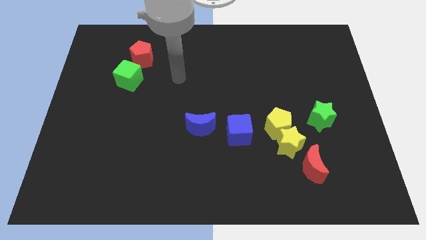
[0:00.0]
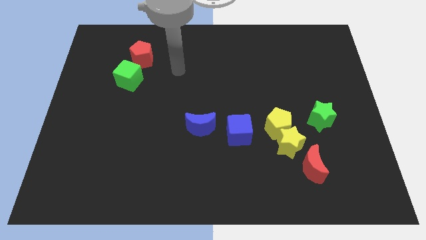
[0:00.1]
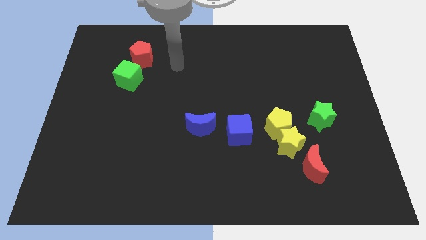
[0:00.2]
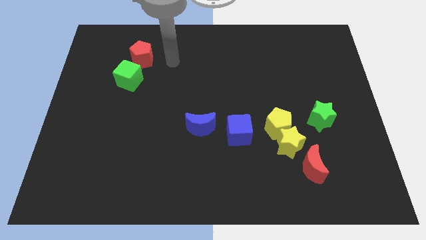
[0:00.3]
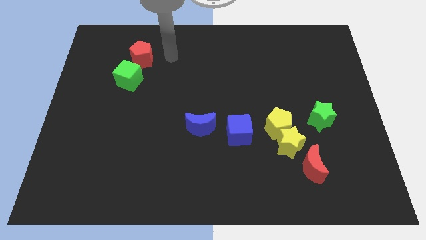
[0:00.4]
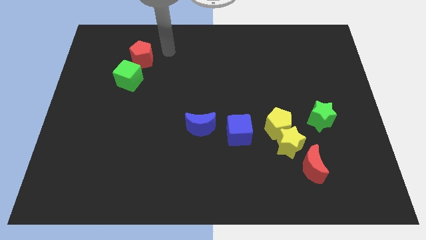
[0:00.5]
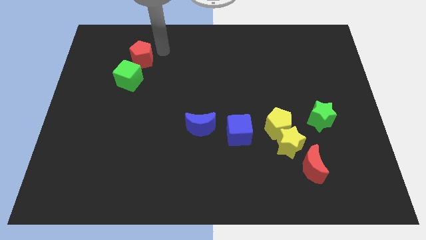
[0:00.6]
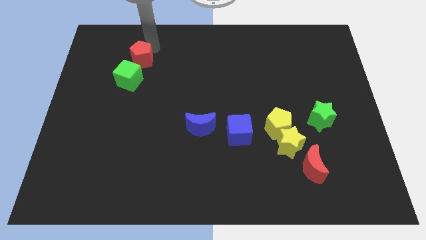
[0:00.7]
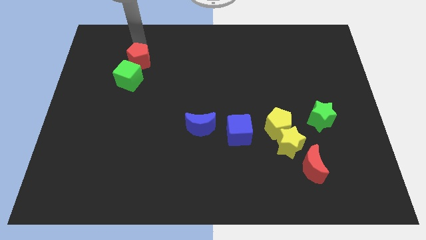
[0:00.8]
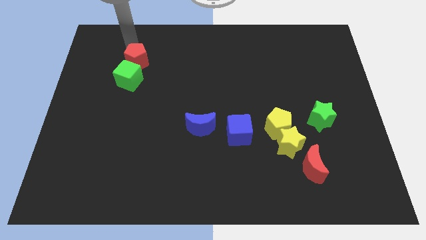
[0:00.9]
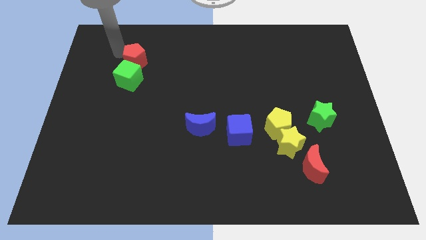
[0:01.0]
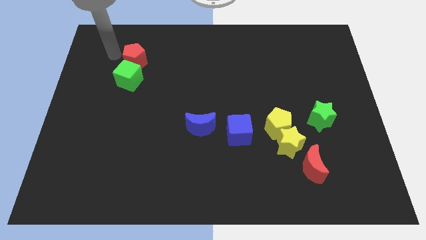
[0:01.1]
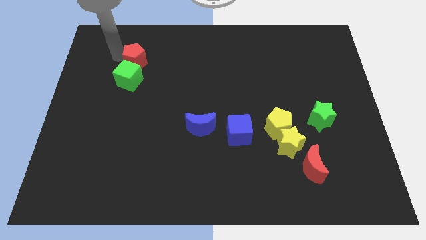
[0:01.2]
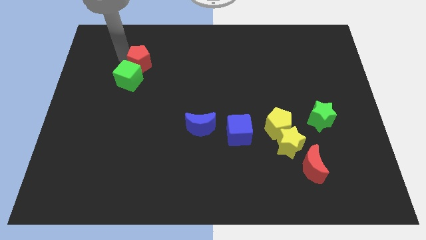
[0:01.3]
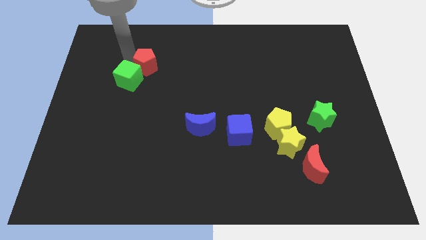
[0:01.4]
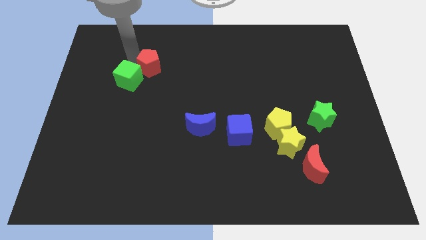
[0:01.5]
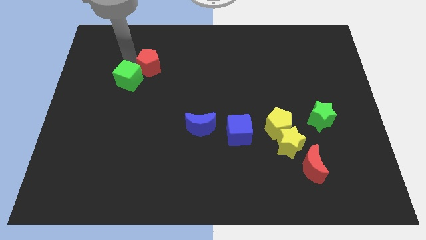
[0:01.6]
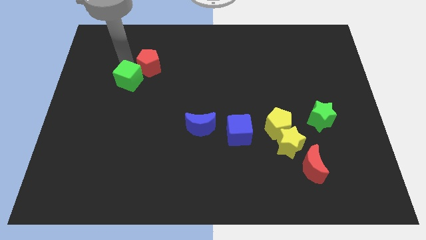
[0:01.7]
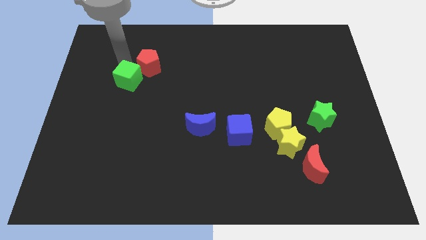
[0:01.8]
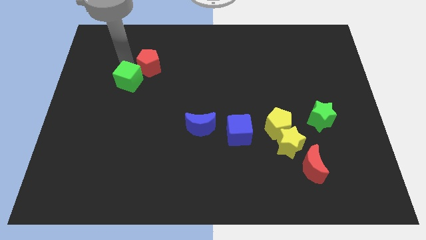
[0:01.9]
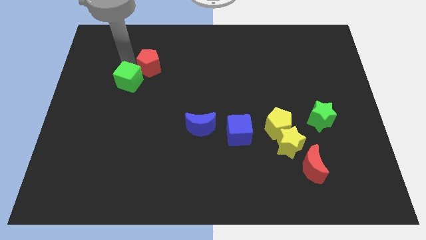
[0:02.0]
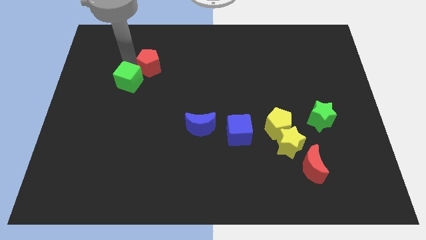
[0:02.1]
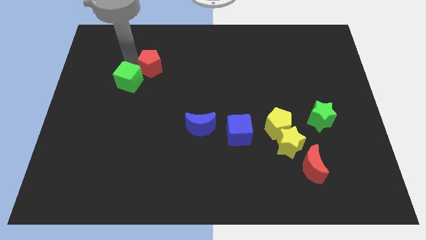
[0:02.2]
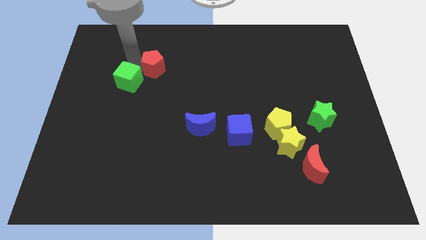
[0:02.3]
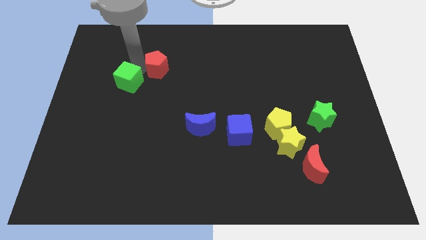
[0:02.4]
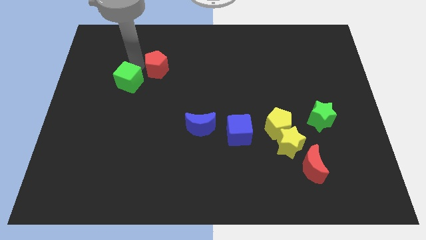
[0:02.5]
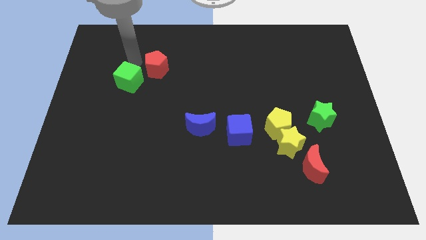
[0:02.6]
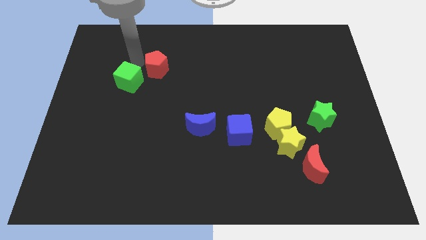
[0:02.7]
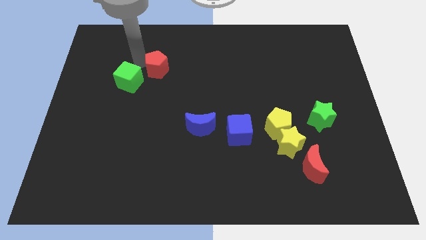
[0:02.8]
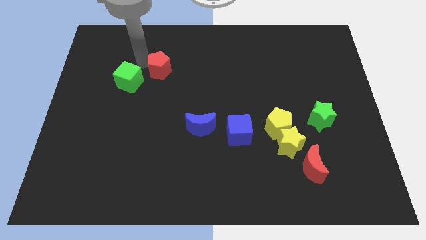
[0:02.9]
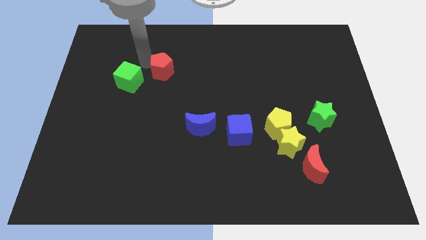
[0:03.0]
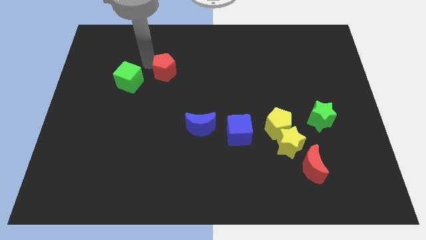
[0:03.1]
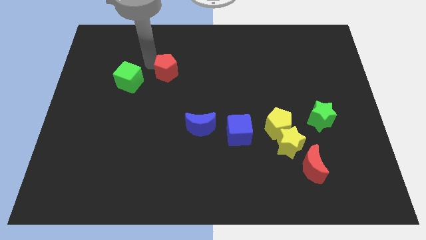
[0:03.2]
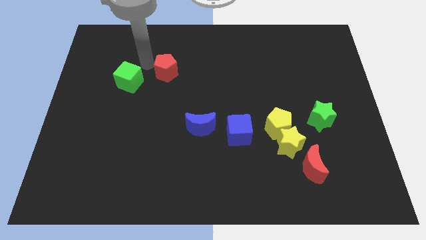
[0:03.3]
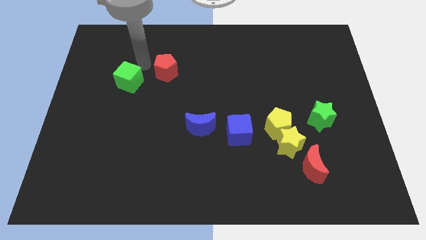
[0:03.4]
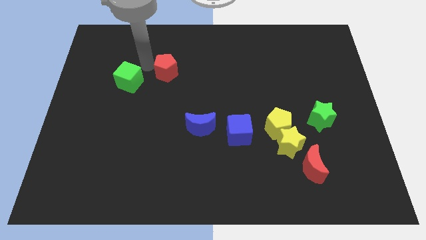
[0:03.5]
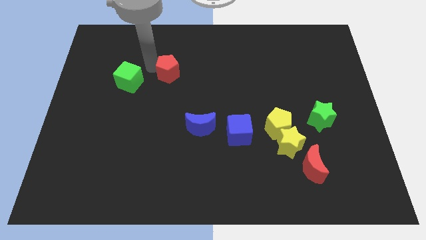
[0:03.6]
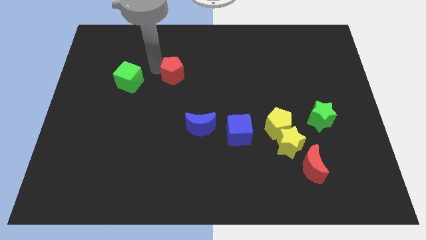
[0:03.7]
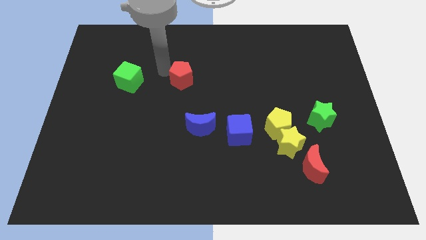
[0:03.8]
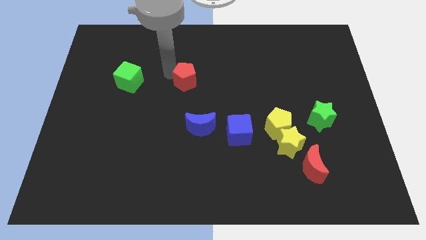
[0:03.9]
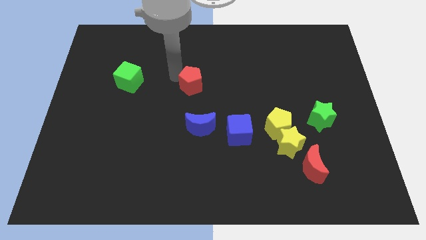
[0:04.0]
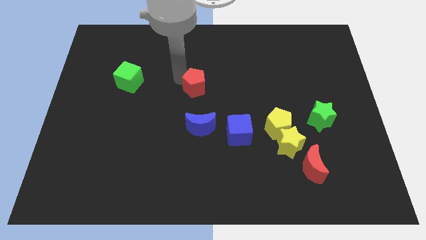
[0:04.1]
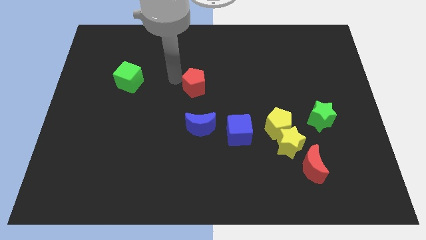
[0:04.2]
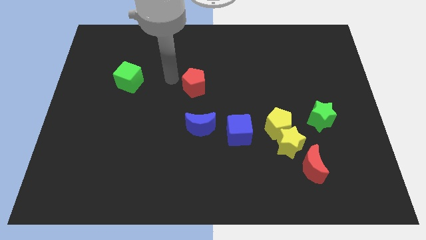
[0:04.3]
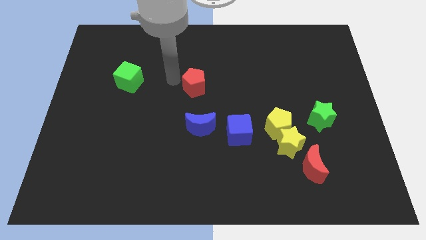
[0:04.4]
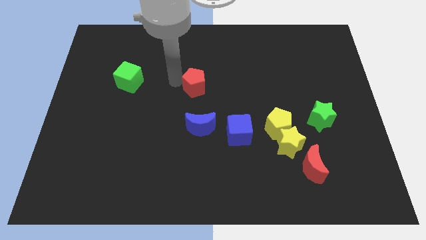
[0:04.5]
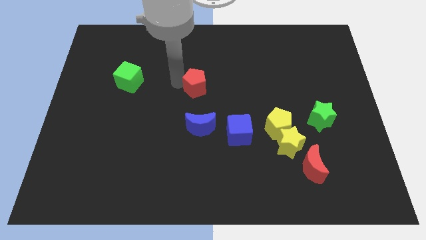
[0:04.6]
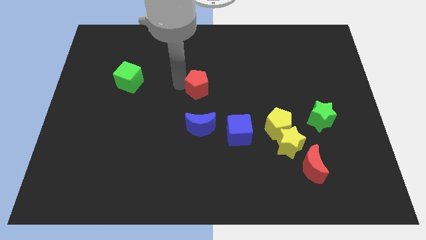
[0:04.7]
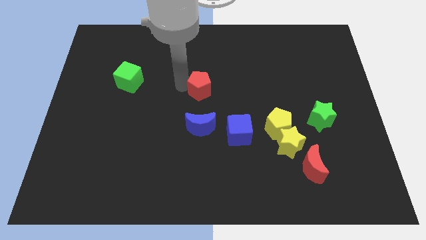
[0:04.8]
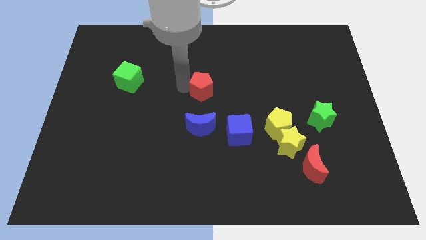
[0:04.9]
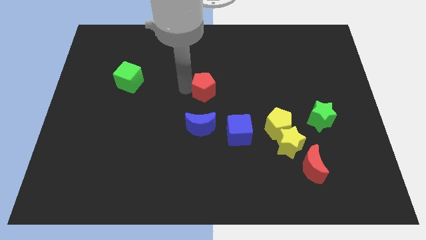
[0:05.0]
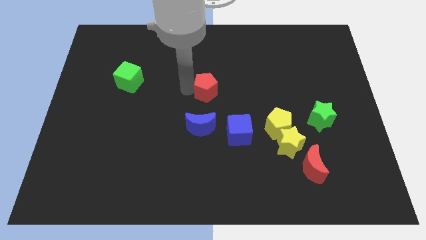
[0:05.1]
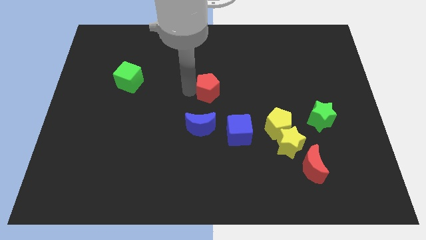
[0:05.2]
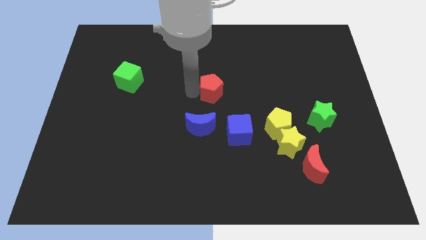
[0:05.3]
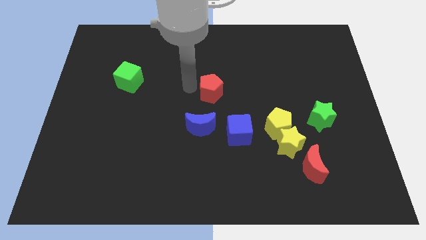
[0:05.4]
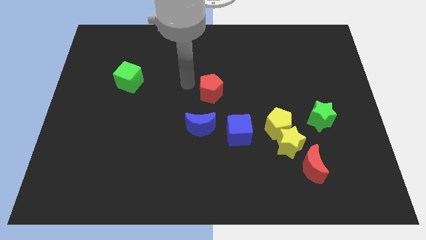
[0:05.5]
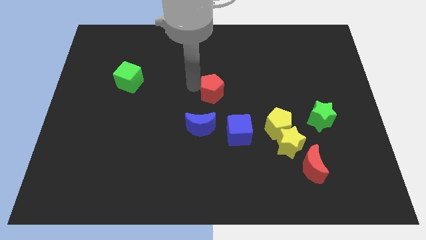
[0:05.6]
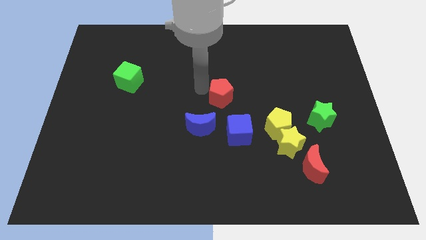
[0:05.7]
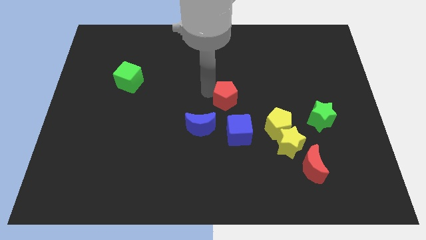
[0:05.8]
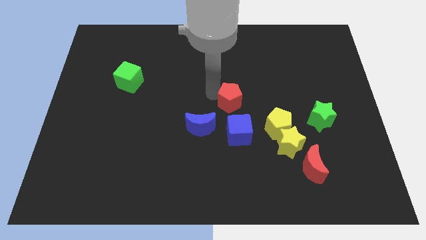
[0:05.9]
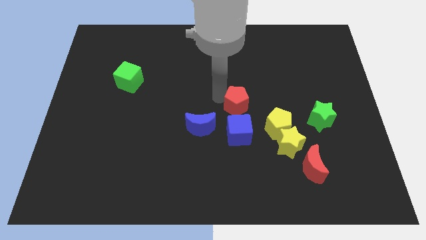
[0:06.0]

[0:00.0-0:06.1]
move the red pentagon to the top left of the yellow pentagon

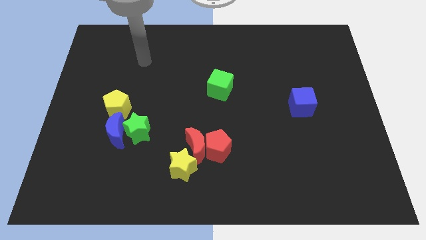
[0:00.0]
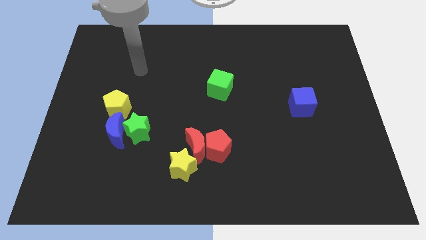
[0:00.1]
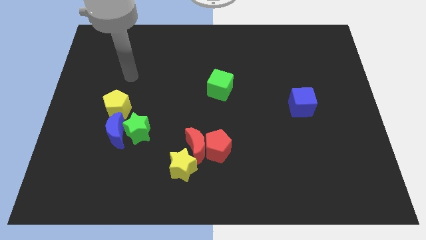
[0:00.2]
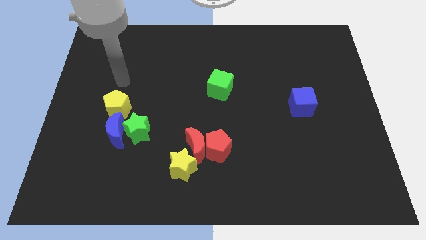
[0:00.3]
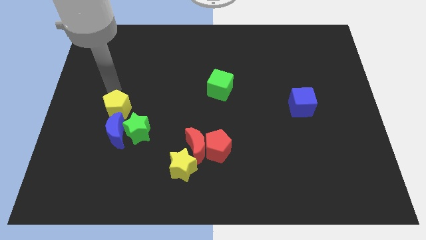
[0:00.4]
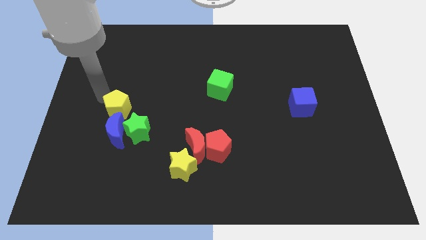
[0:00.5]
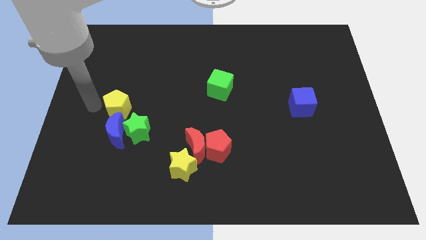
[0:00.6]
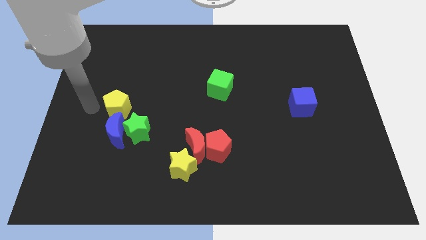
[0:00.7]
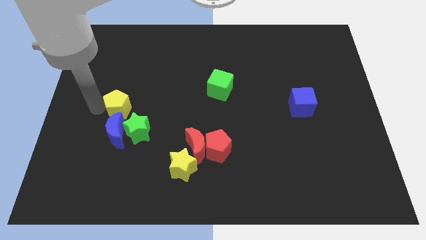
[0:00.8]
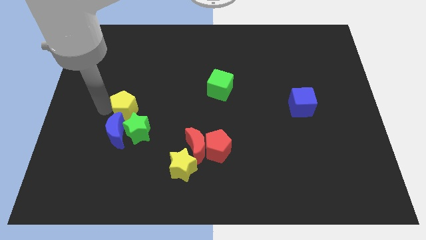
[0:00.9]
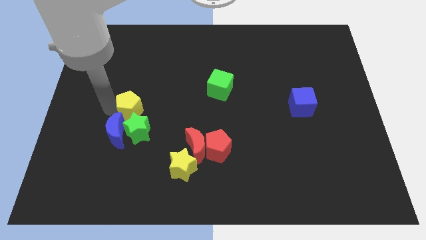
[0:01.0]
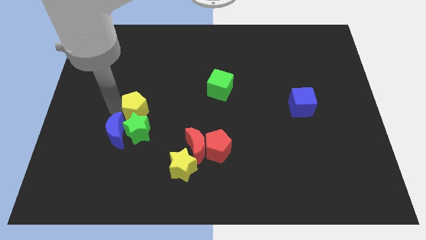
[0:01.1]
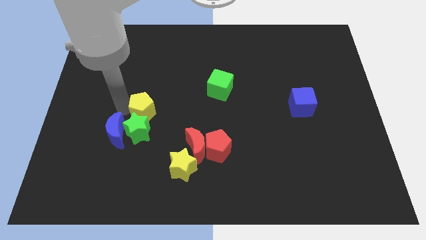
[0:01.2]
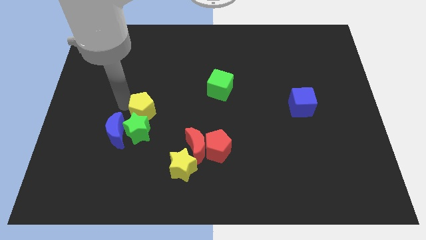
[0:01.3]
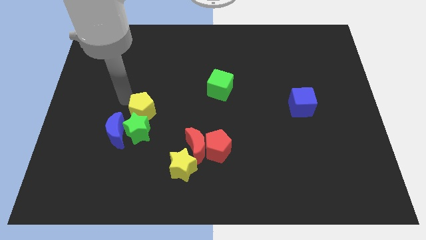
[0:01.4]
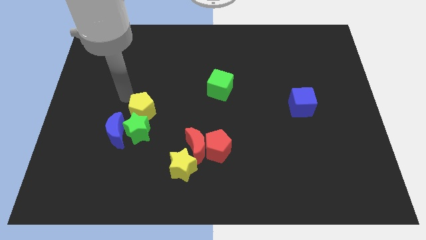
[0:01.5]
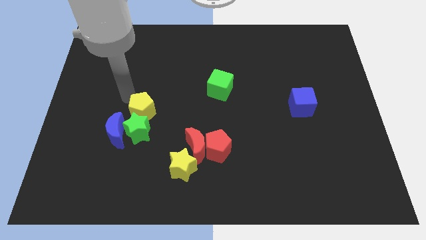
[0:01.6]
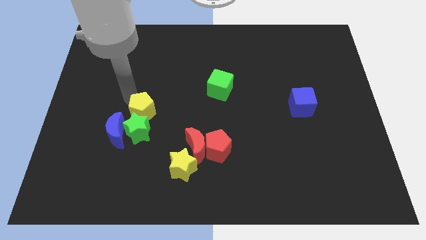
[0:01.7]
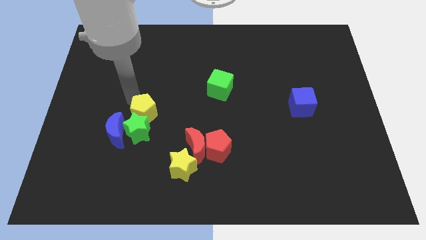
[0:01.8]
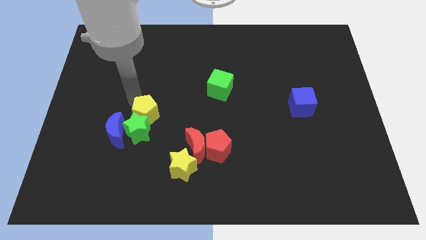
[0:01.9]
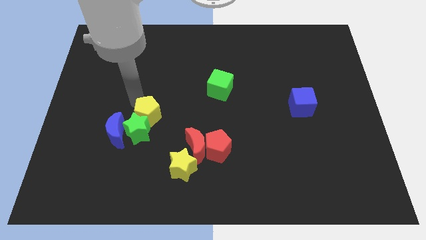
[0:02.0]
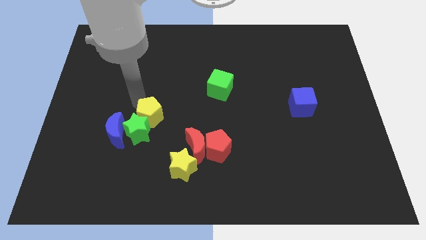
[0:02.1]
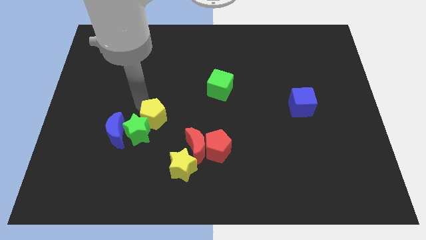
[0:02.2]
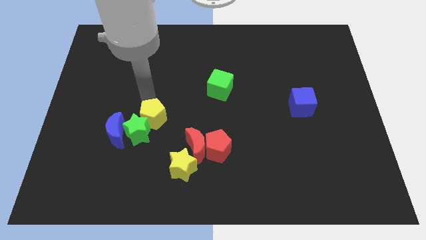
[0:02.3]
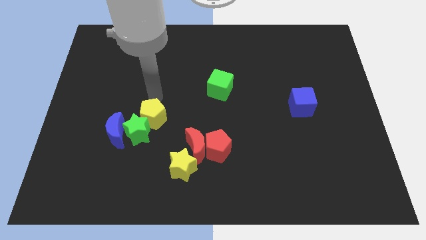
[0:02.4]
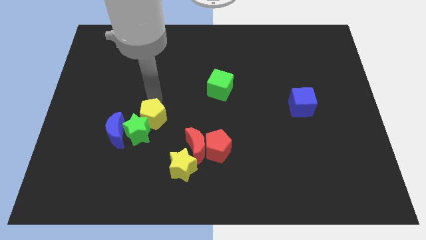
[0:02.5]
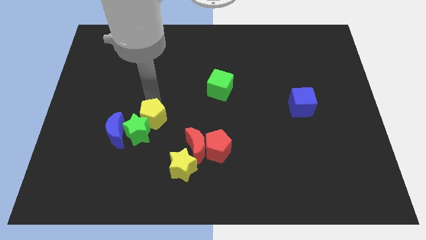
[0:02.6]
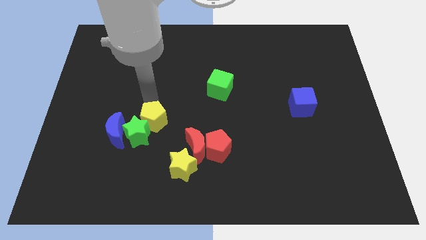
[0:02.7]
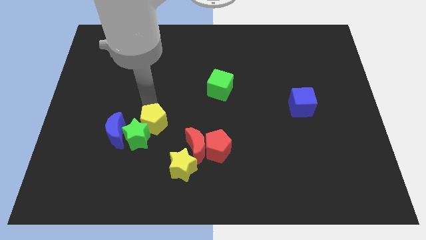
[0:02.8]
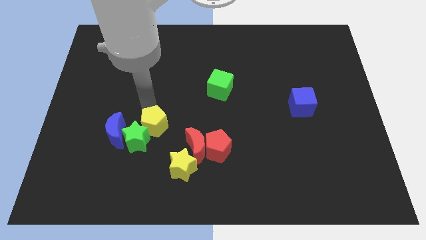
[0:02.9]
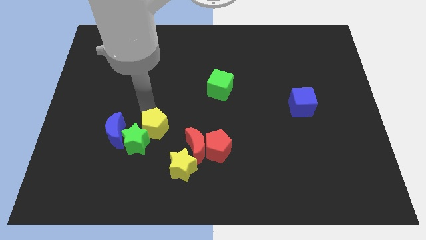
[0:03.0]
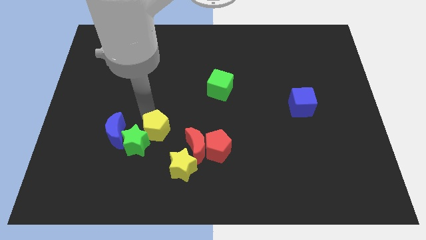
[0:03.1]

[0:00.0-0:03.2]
put the yellow pentagon left of the red moon
